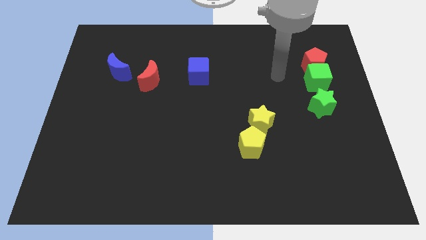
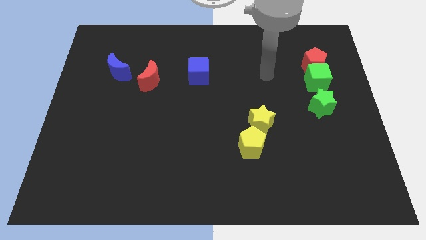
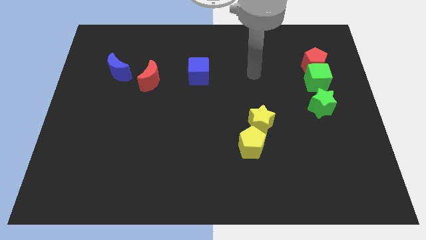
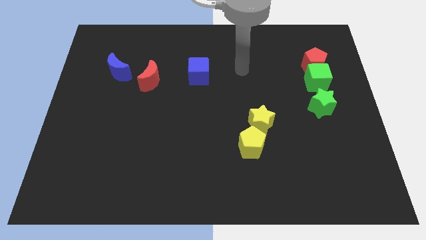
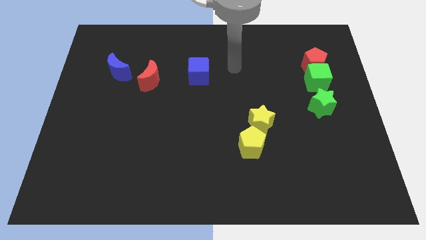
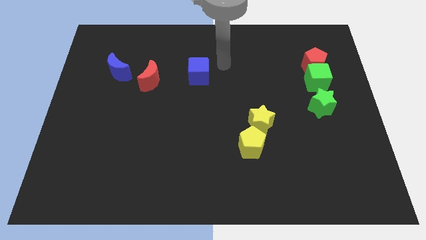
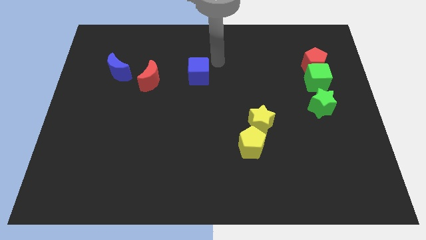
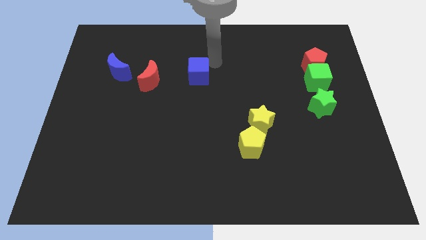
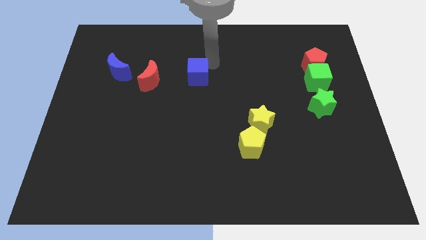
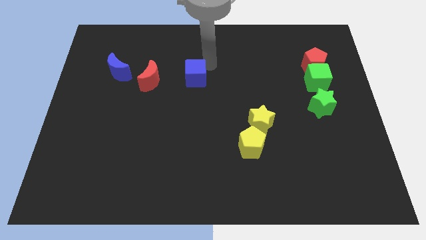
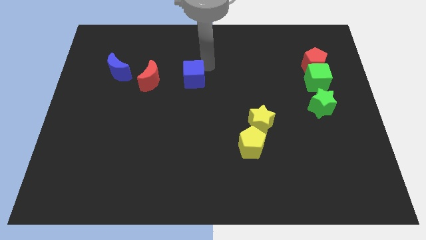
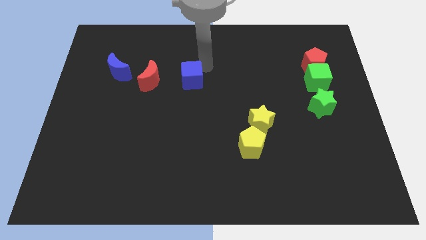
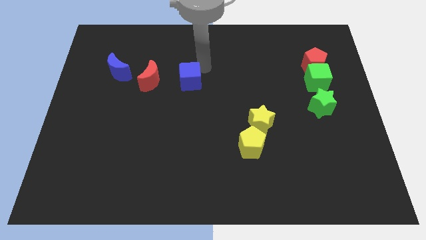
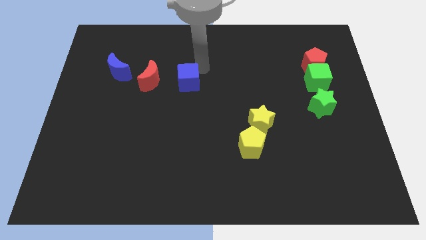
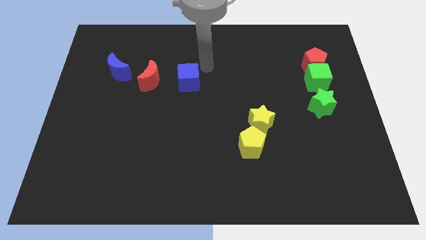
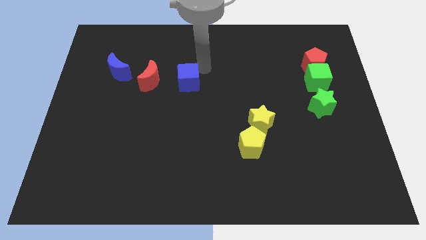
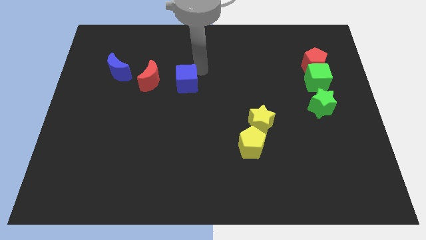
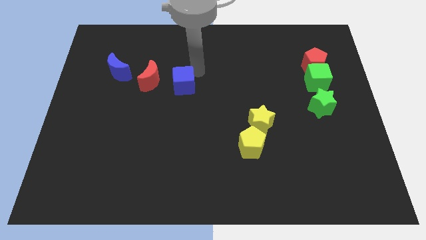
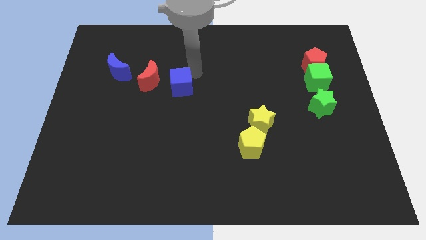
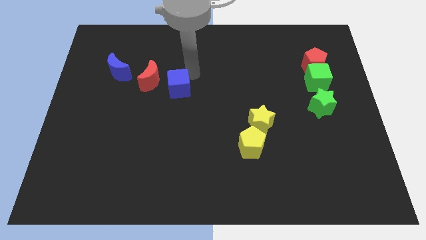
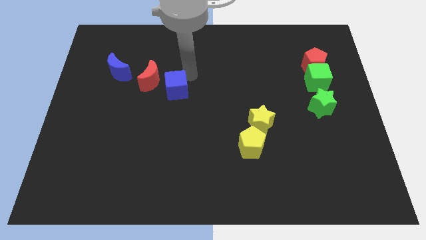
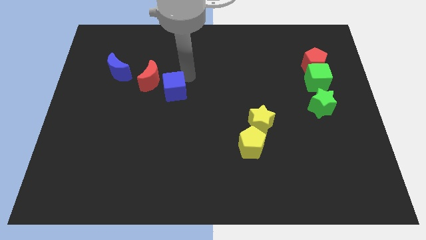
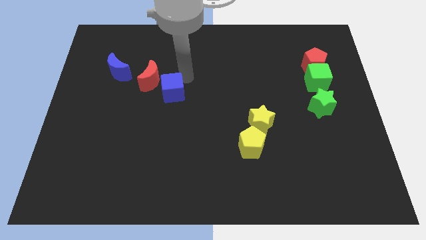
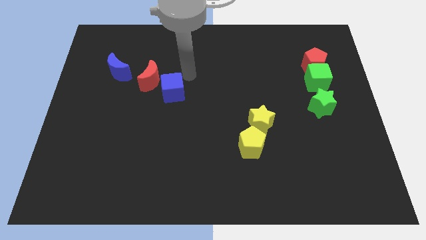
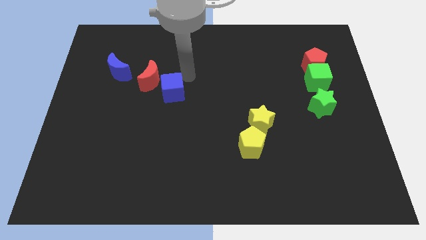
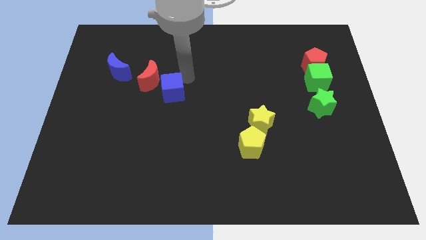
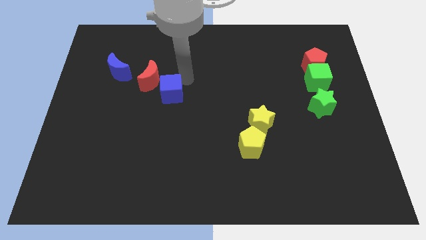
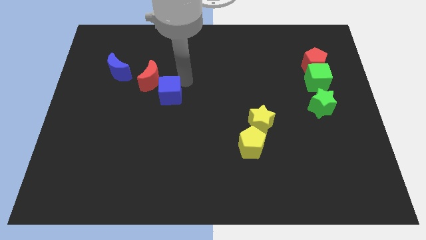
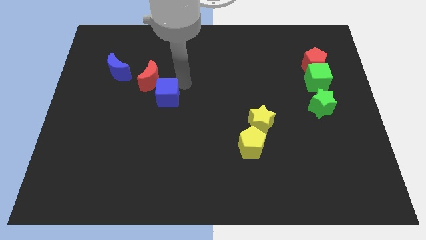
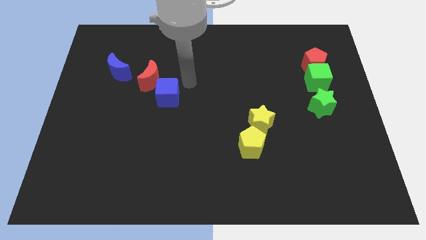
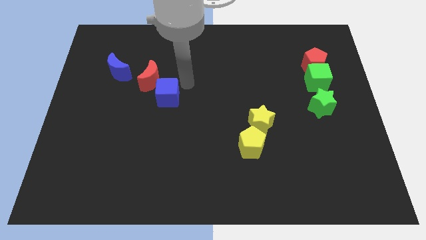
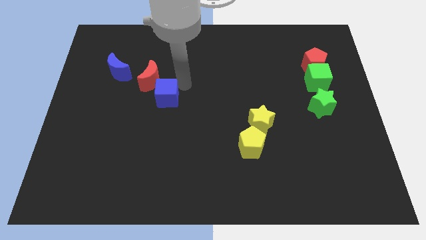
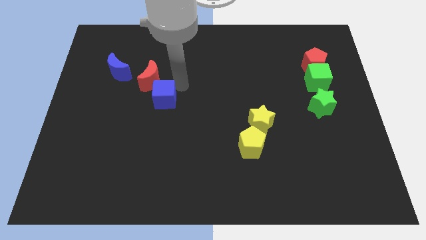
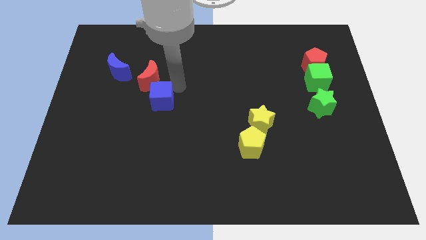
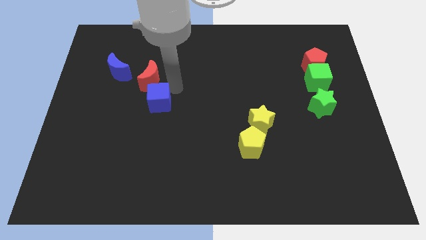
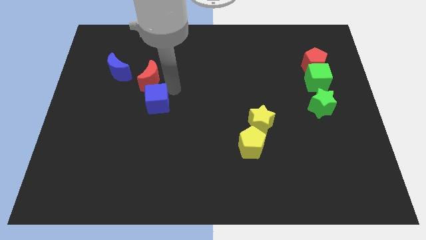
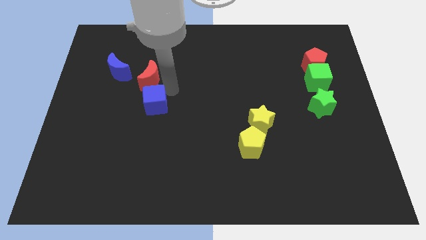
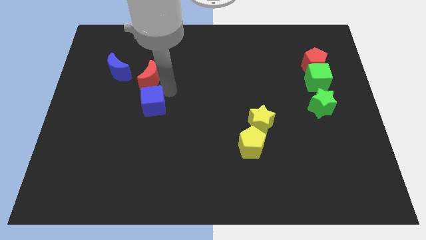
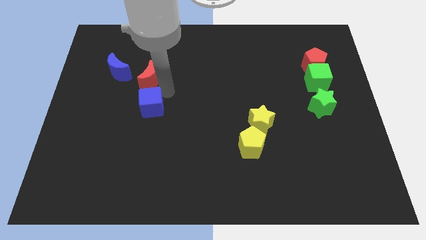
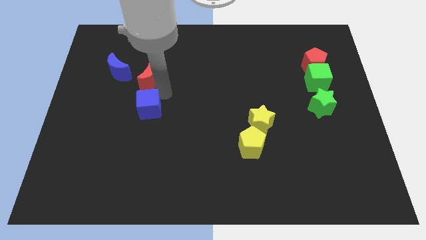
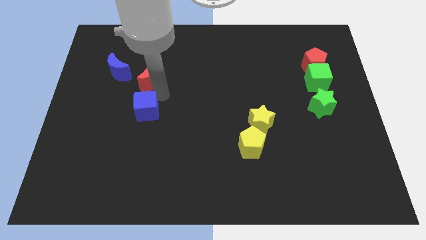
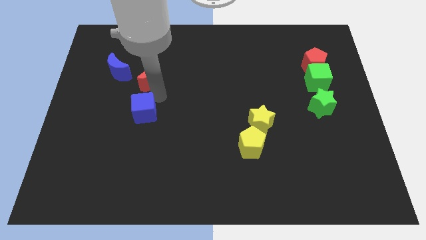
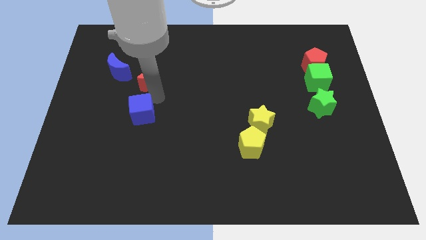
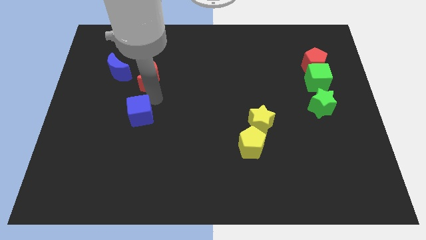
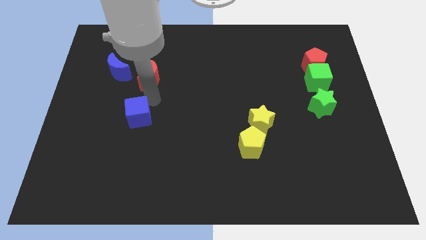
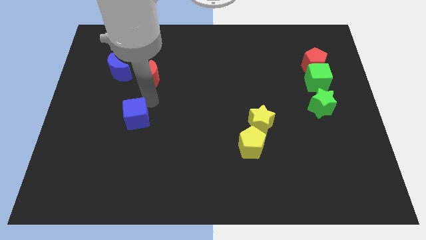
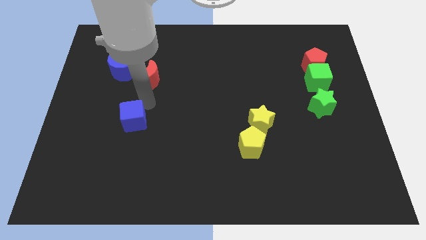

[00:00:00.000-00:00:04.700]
slide the blue cube down and to the left

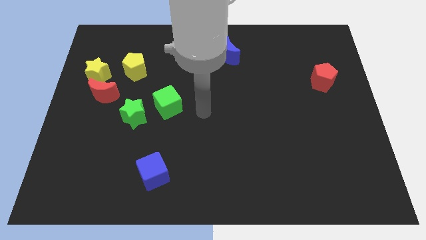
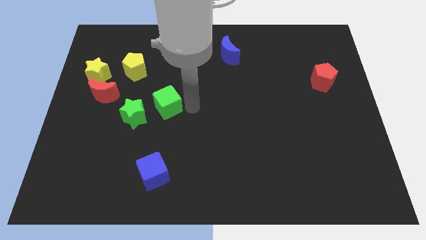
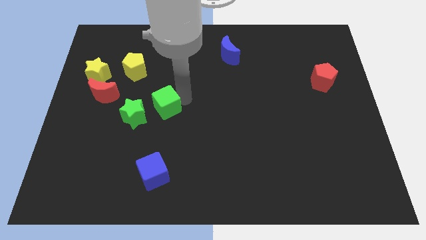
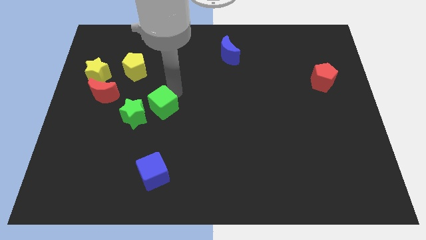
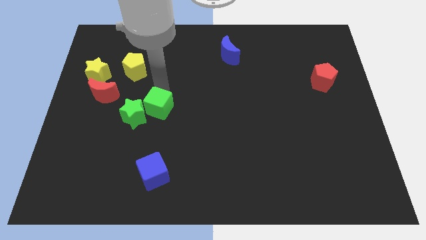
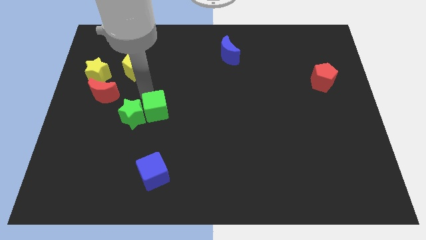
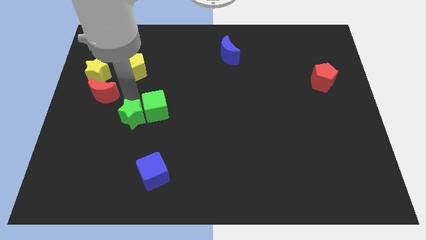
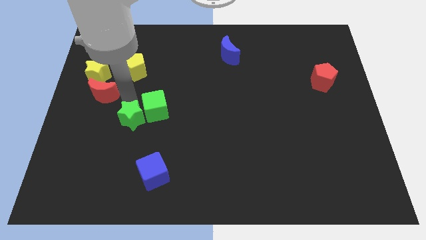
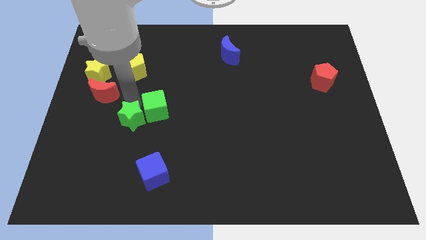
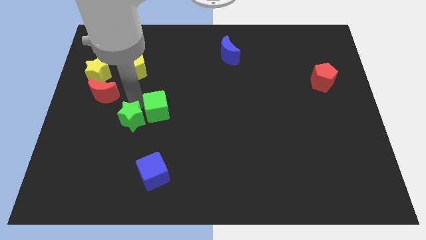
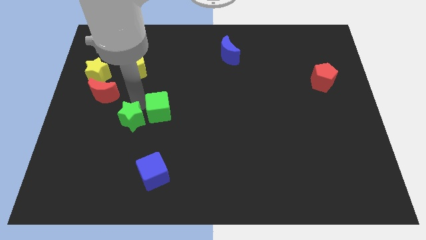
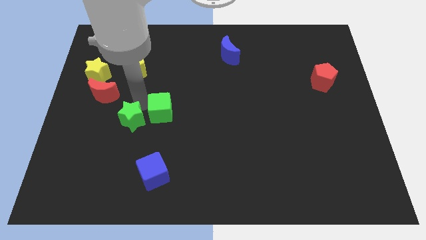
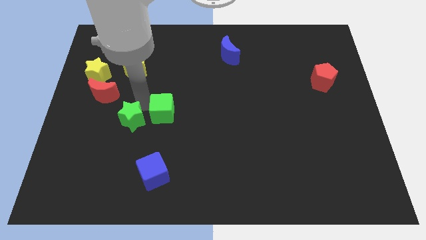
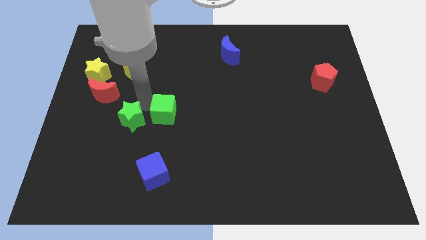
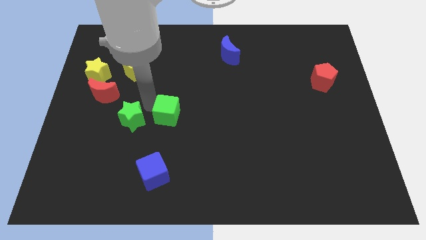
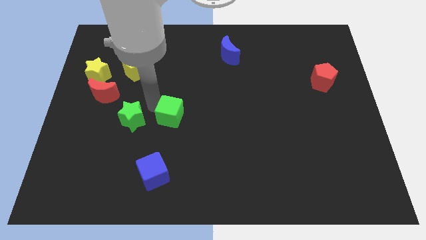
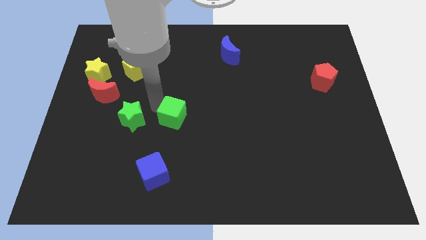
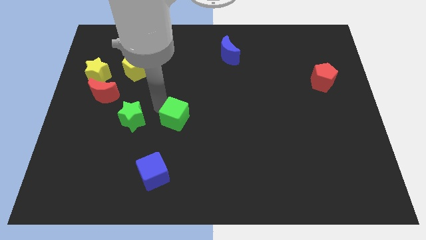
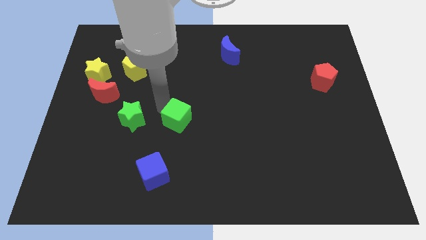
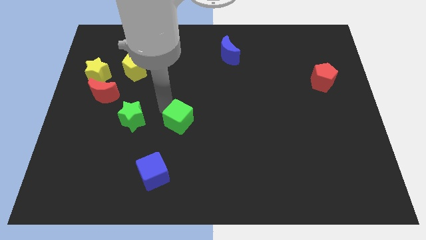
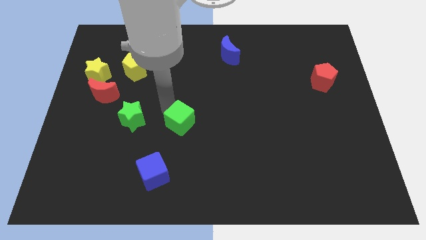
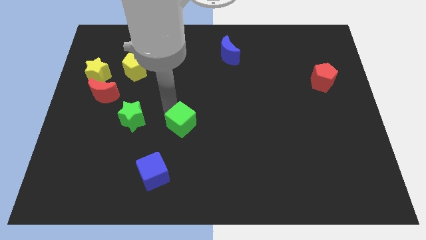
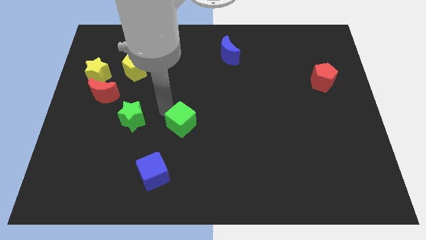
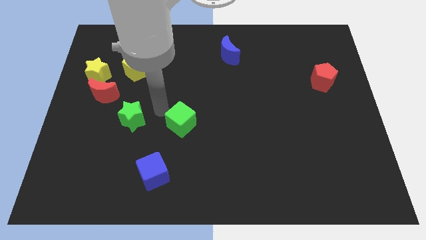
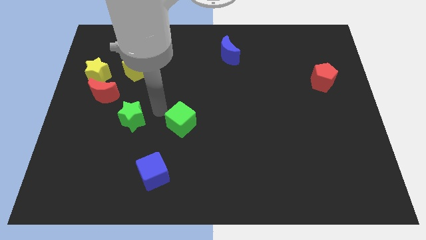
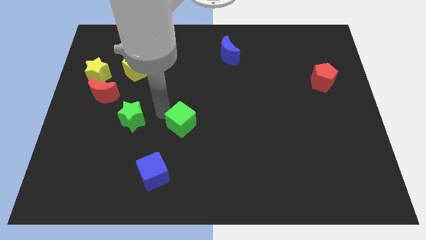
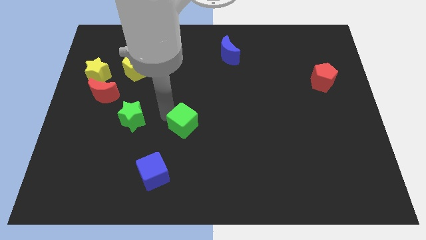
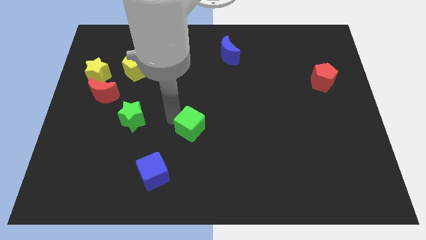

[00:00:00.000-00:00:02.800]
slightly slide the green cube downwards and to the right

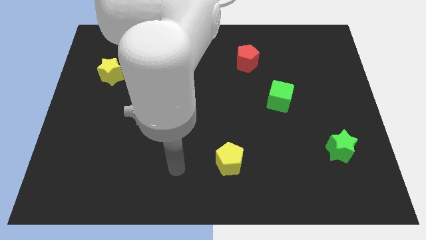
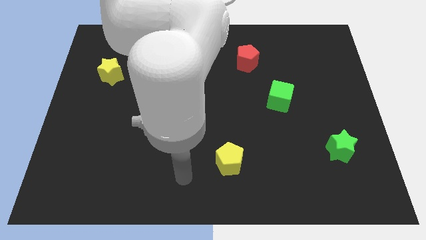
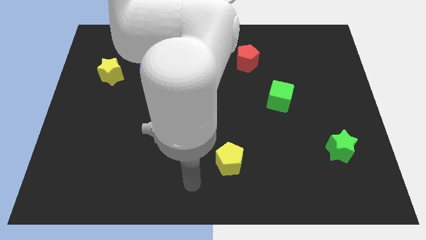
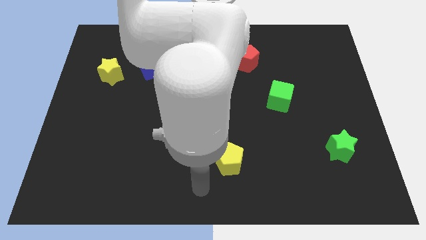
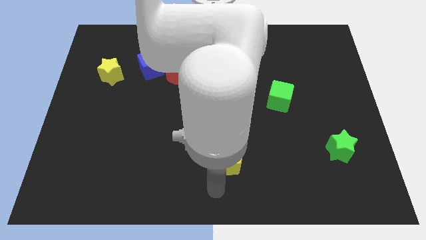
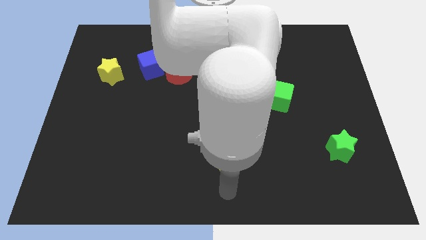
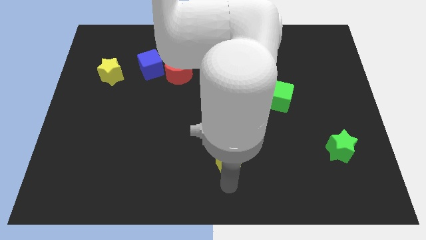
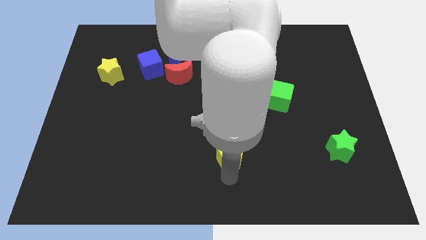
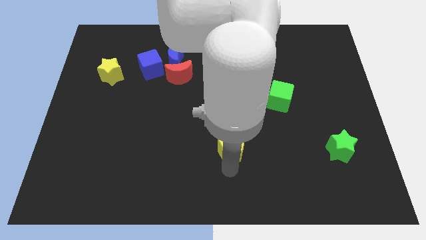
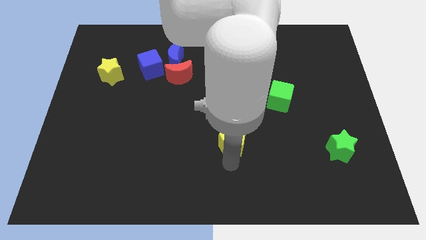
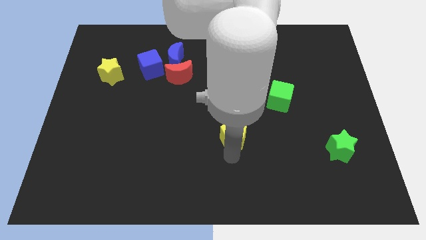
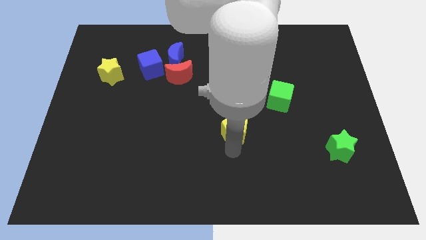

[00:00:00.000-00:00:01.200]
slightly move the yellow pentagon upwards
